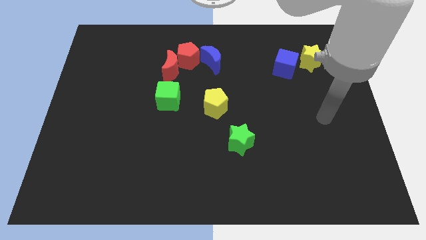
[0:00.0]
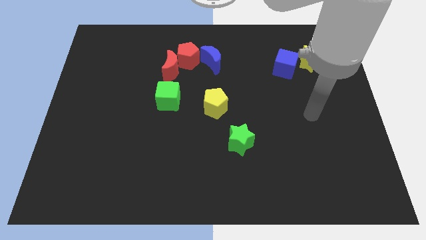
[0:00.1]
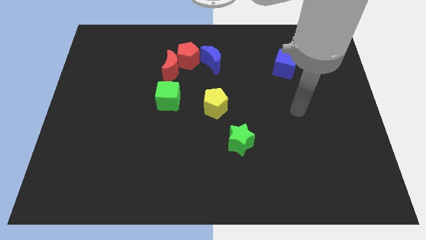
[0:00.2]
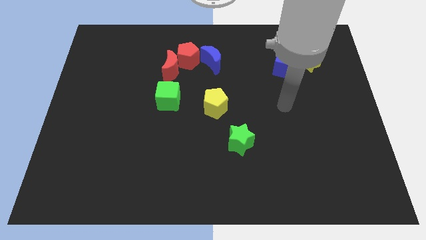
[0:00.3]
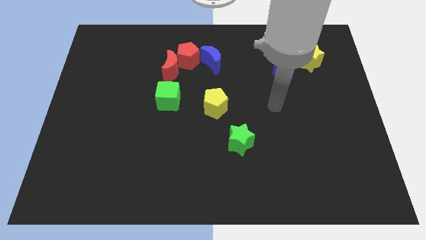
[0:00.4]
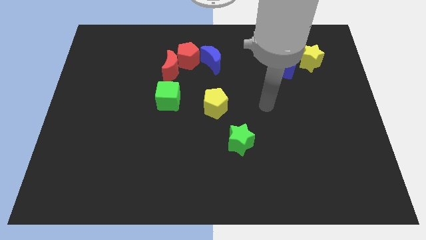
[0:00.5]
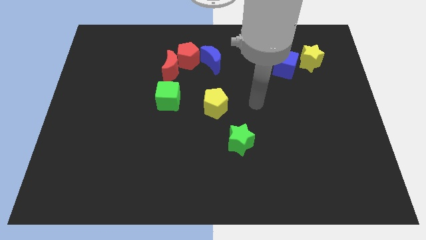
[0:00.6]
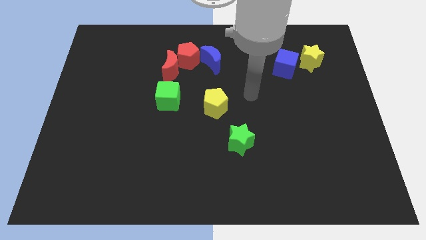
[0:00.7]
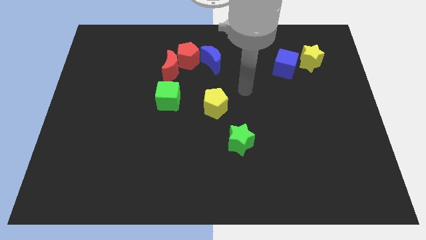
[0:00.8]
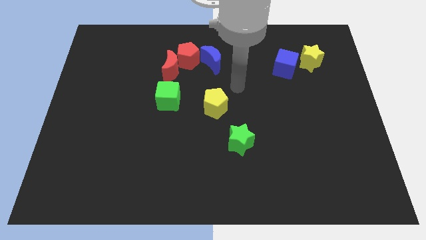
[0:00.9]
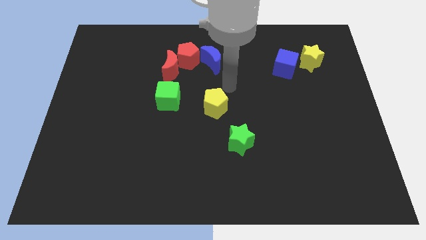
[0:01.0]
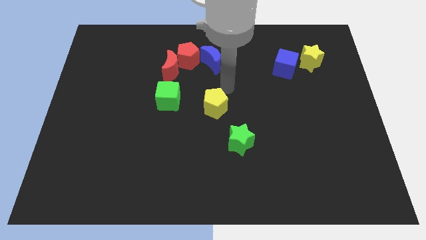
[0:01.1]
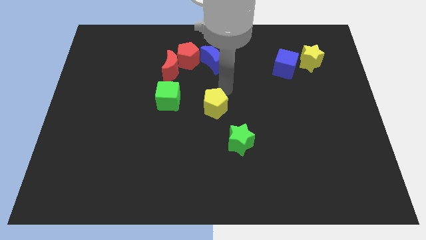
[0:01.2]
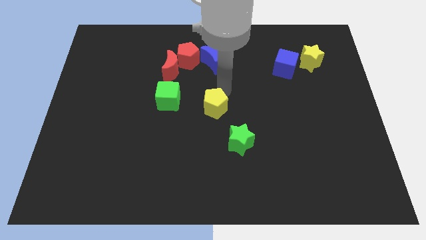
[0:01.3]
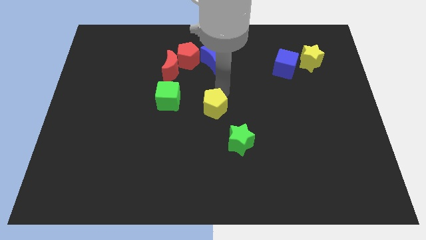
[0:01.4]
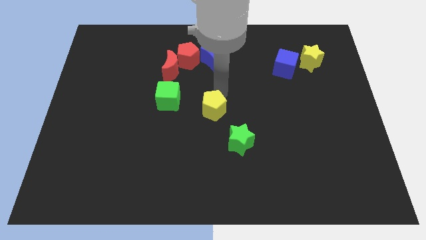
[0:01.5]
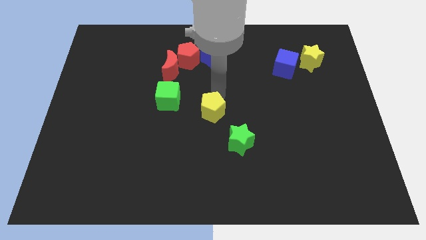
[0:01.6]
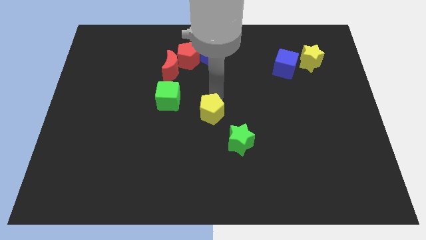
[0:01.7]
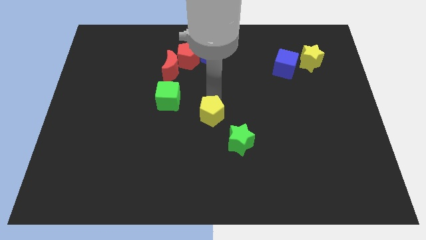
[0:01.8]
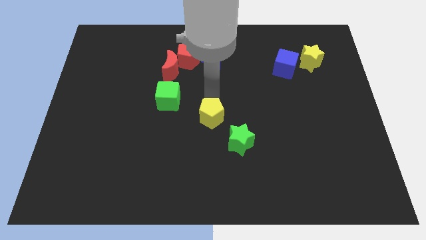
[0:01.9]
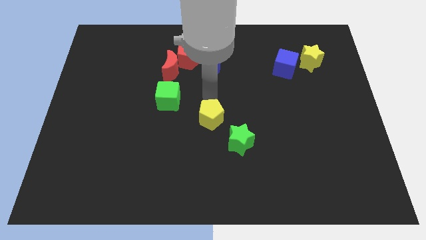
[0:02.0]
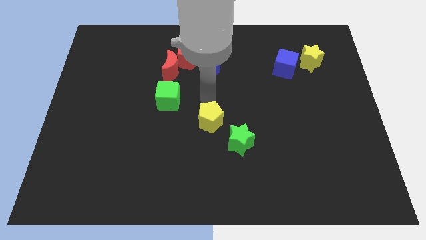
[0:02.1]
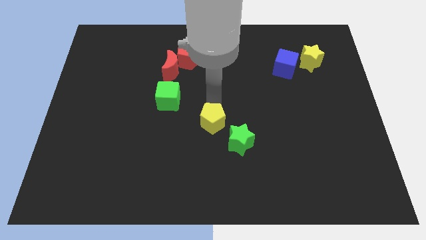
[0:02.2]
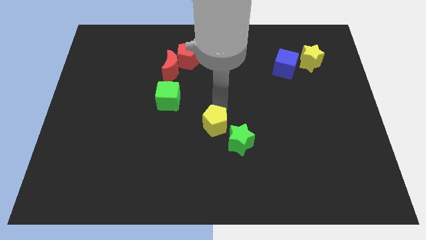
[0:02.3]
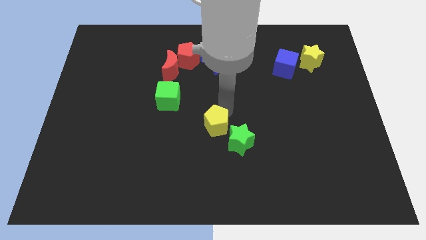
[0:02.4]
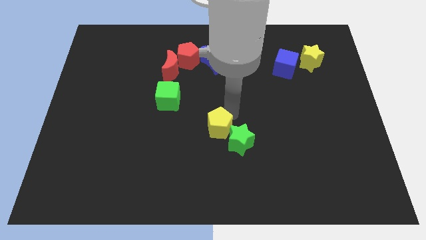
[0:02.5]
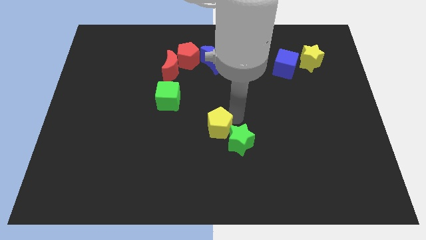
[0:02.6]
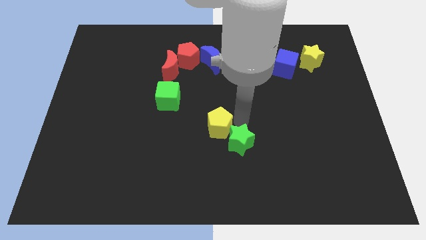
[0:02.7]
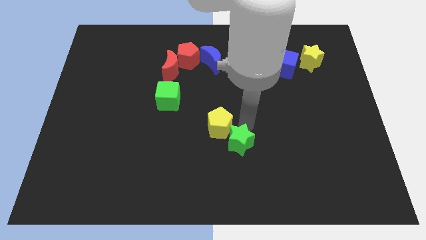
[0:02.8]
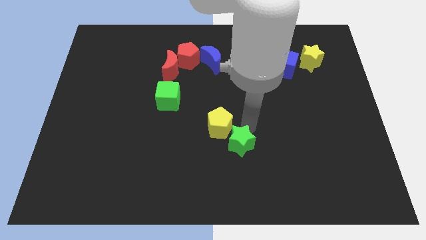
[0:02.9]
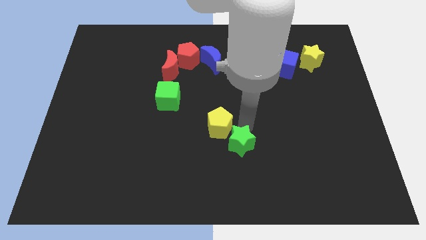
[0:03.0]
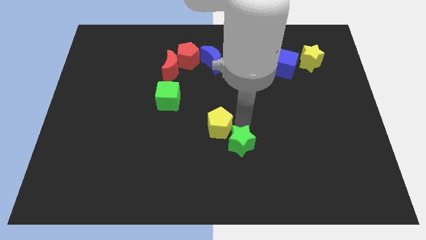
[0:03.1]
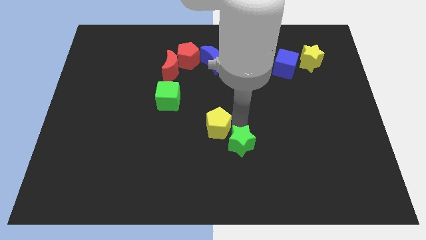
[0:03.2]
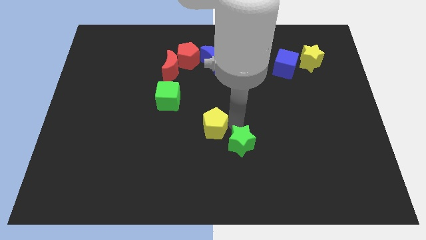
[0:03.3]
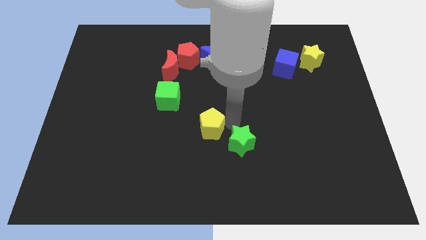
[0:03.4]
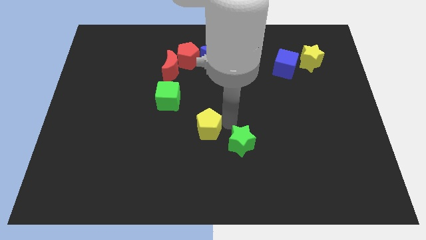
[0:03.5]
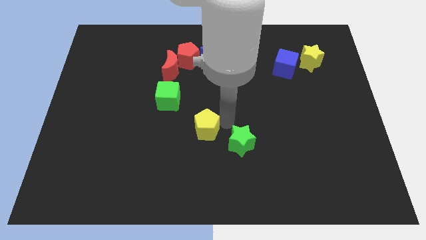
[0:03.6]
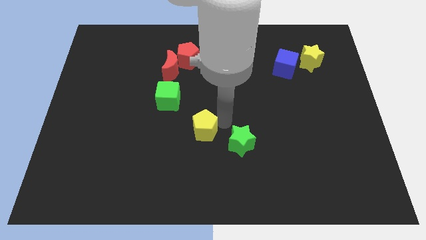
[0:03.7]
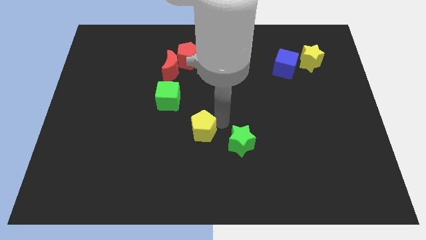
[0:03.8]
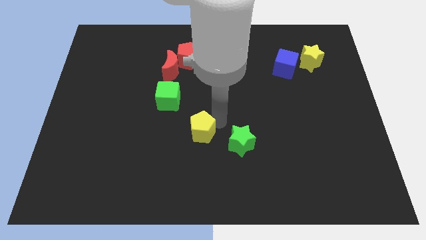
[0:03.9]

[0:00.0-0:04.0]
move the yellow pentagon slightly downwards and then to the left

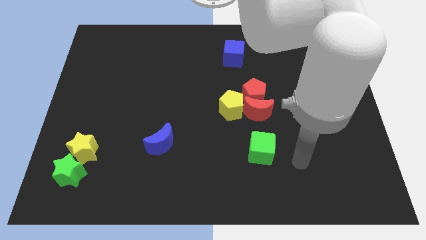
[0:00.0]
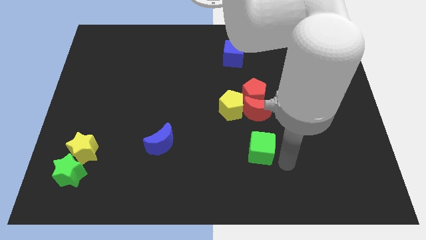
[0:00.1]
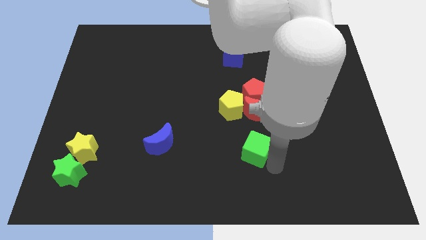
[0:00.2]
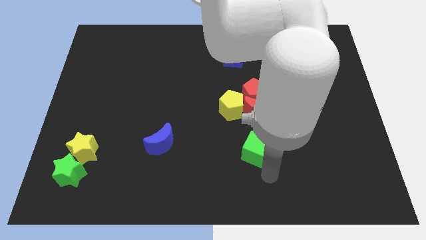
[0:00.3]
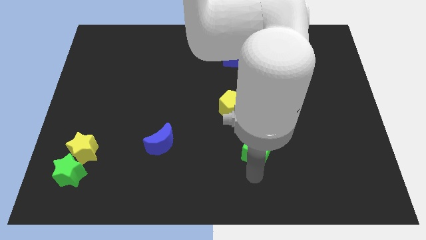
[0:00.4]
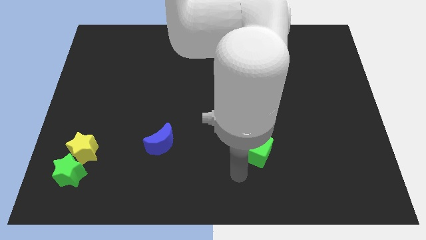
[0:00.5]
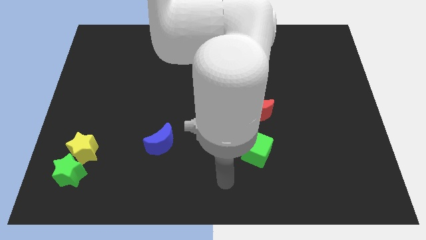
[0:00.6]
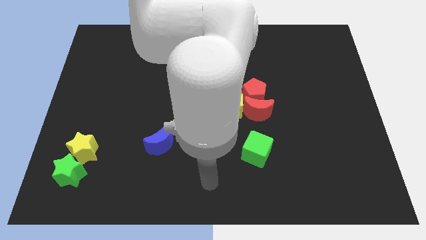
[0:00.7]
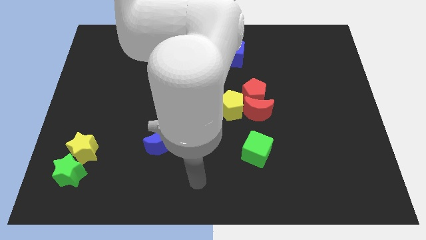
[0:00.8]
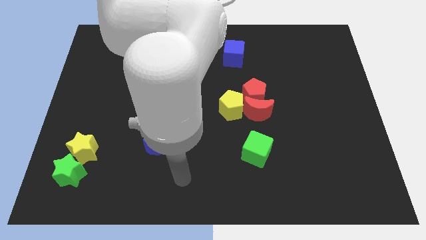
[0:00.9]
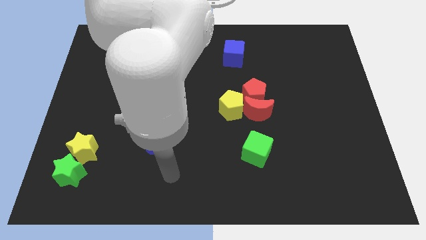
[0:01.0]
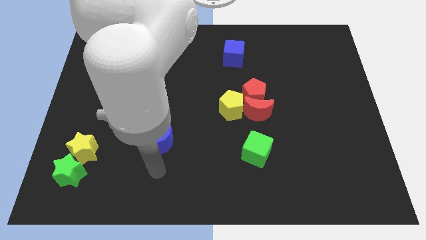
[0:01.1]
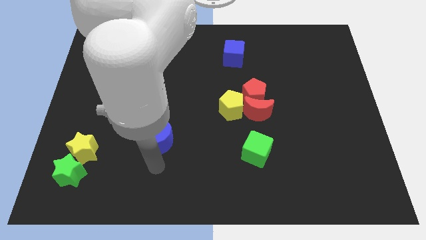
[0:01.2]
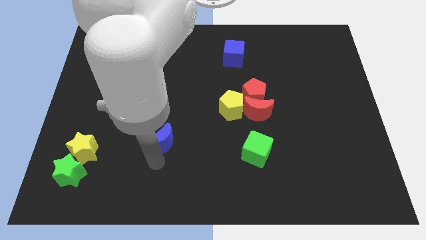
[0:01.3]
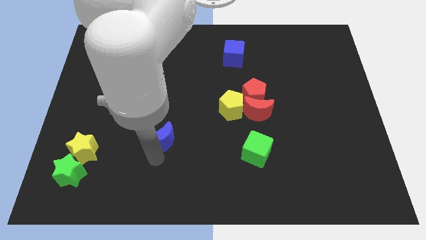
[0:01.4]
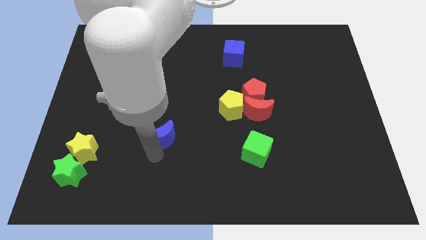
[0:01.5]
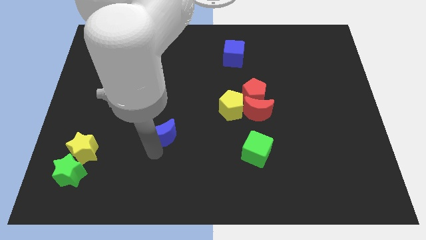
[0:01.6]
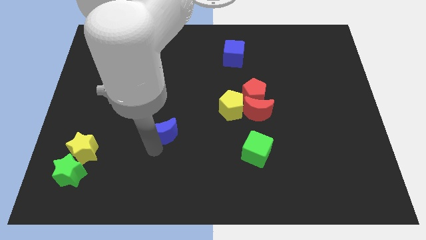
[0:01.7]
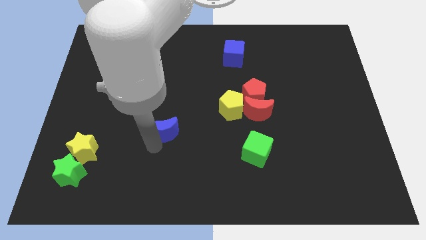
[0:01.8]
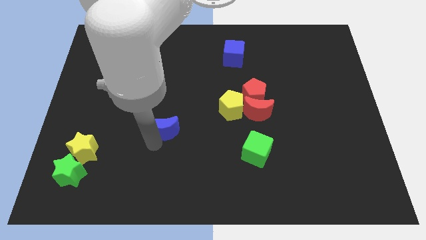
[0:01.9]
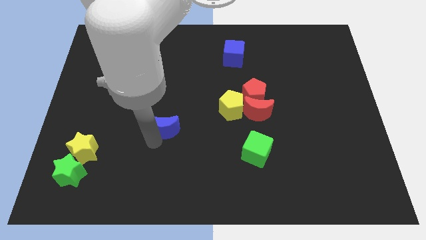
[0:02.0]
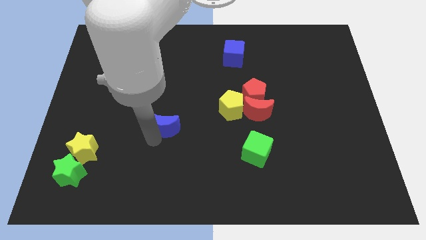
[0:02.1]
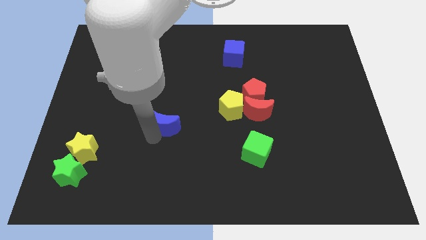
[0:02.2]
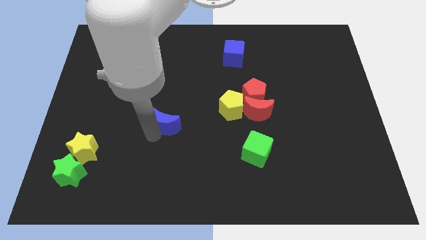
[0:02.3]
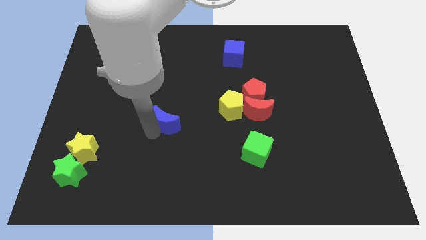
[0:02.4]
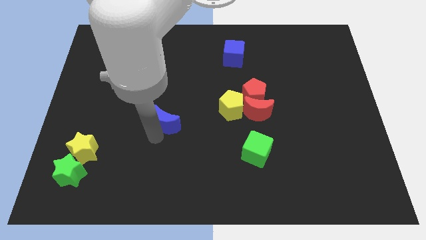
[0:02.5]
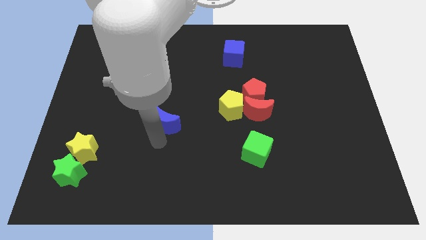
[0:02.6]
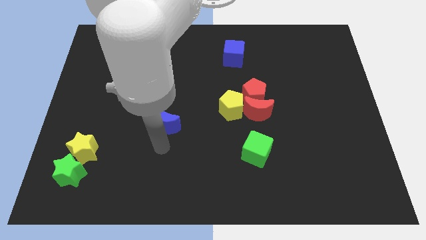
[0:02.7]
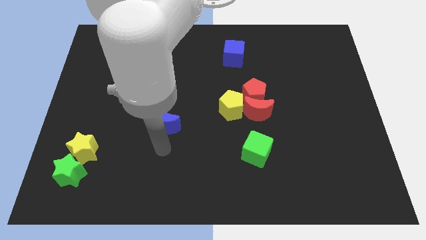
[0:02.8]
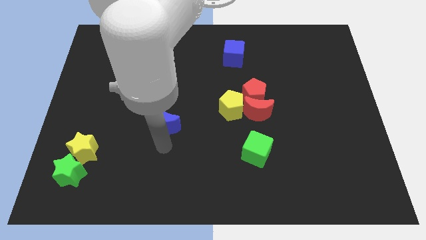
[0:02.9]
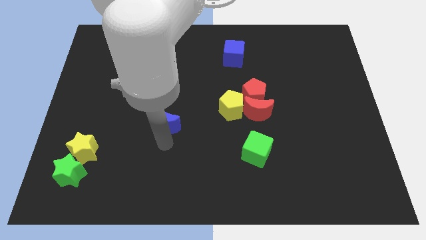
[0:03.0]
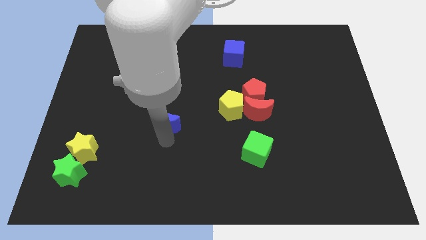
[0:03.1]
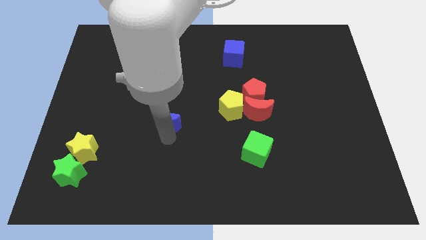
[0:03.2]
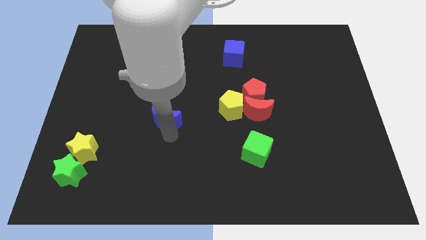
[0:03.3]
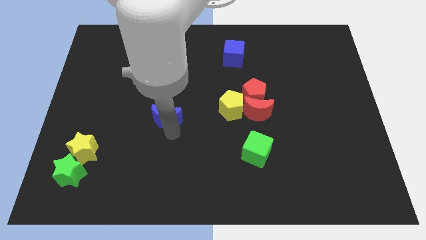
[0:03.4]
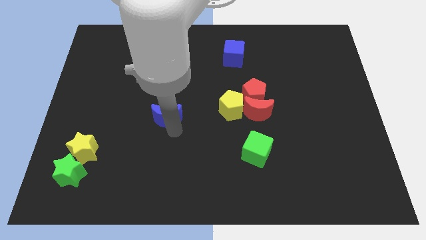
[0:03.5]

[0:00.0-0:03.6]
slightly push the blue moon upwards

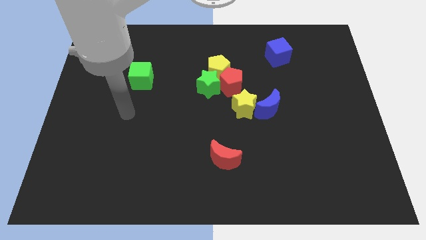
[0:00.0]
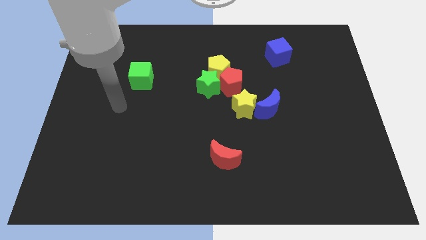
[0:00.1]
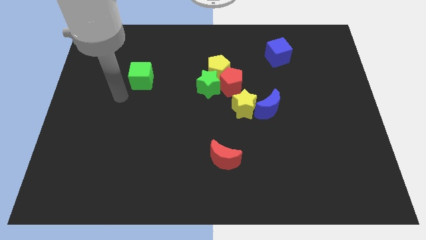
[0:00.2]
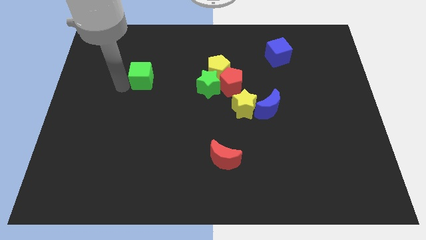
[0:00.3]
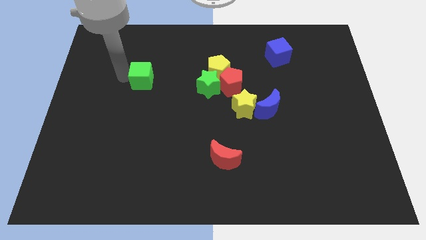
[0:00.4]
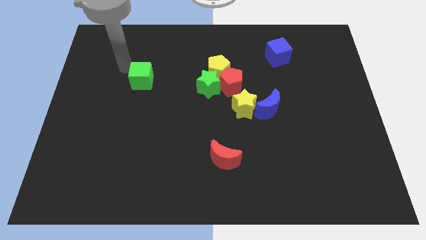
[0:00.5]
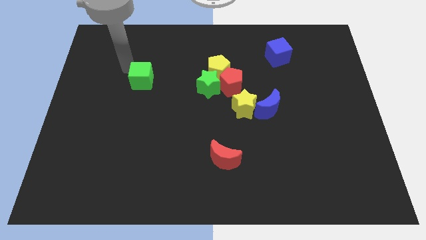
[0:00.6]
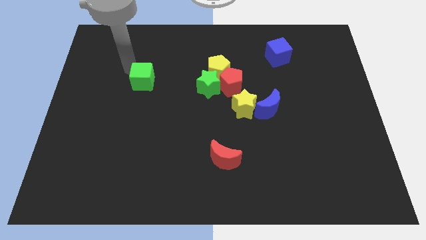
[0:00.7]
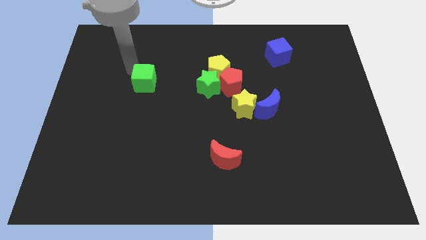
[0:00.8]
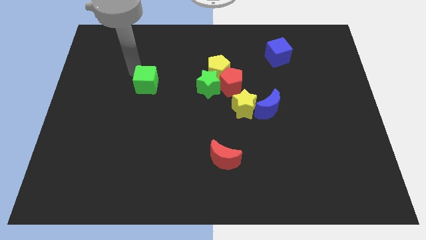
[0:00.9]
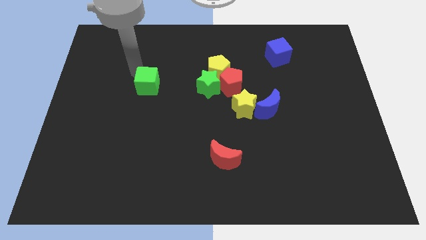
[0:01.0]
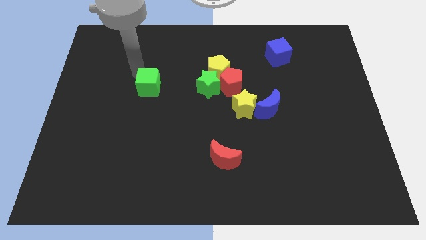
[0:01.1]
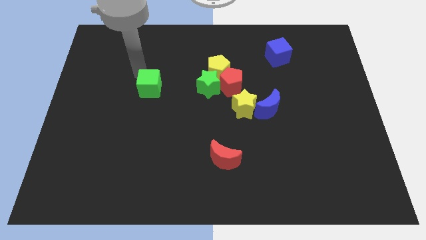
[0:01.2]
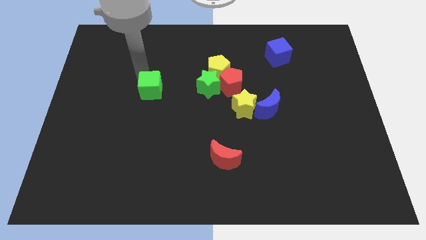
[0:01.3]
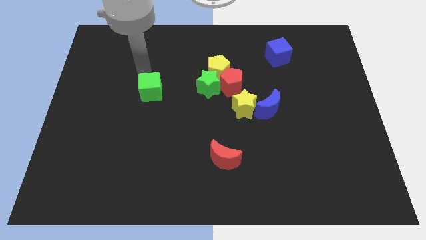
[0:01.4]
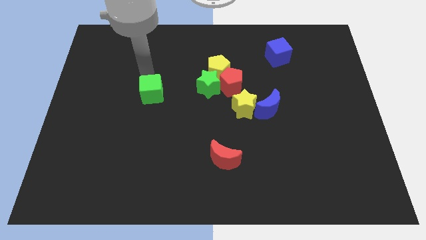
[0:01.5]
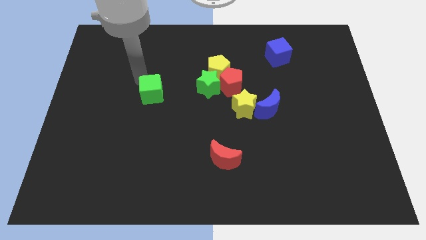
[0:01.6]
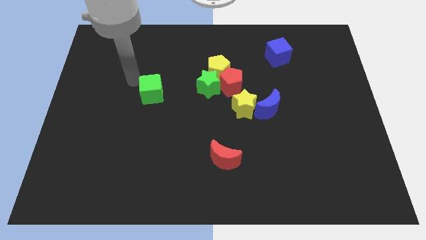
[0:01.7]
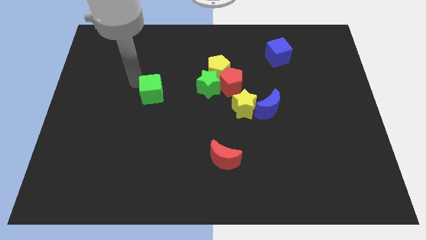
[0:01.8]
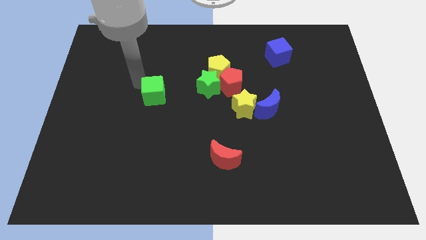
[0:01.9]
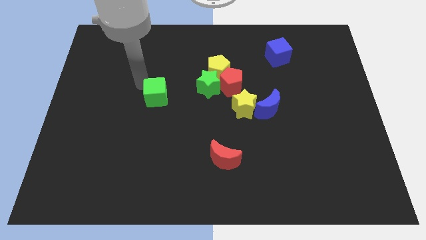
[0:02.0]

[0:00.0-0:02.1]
slightly move the green cube down and to the right
